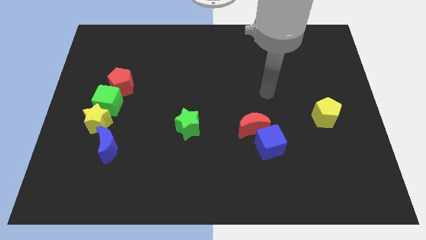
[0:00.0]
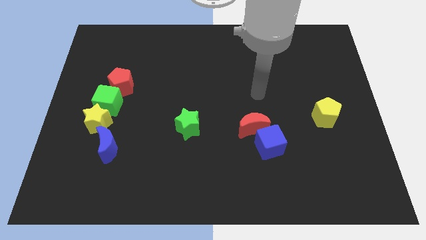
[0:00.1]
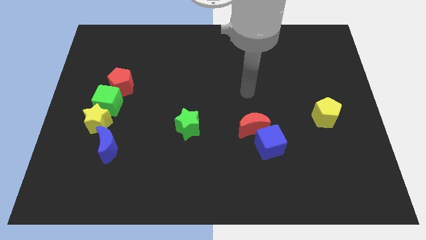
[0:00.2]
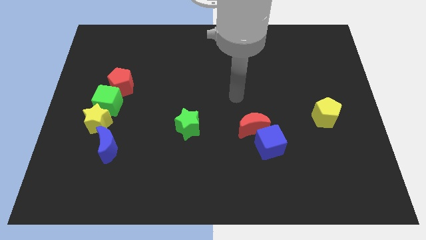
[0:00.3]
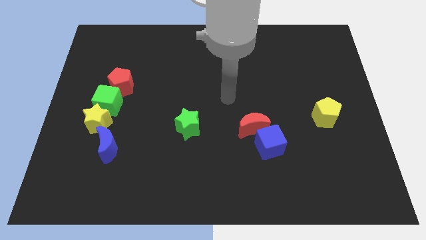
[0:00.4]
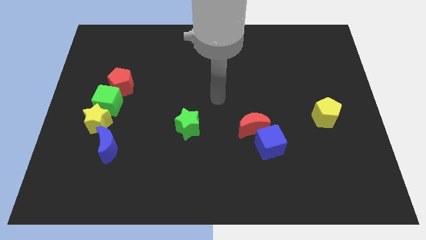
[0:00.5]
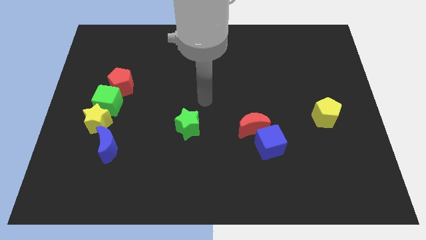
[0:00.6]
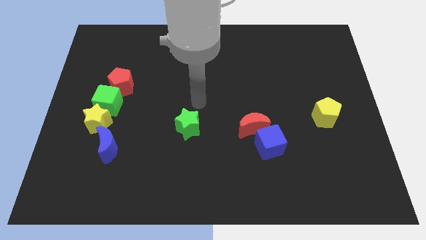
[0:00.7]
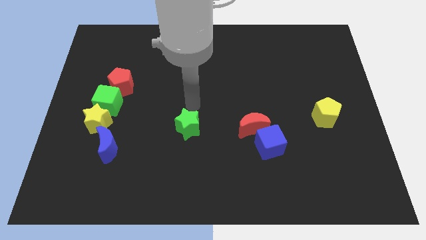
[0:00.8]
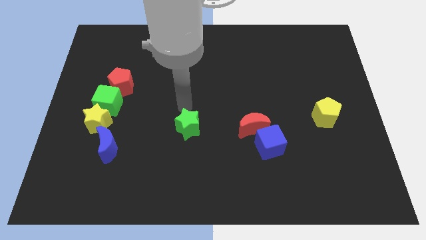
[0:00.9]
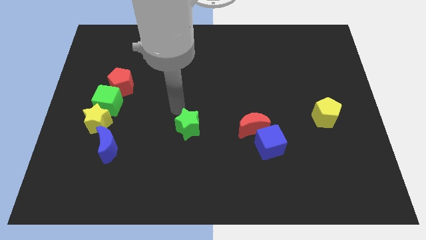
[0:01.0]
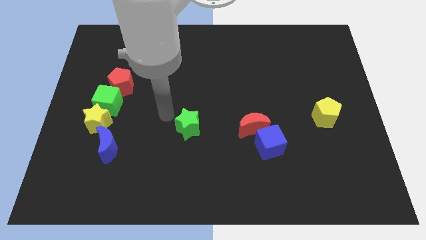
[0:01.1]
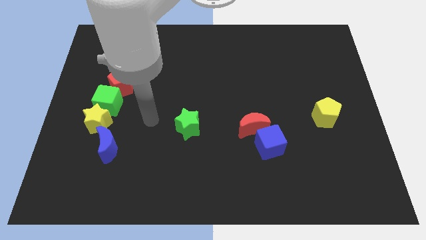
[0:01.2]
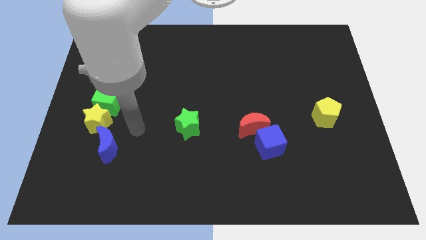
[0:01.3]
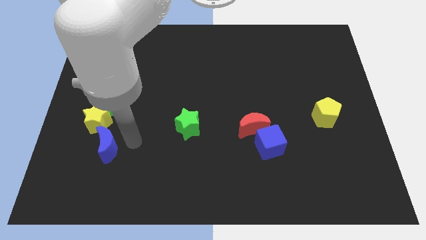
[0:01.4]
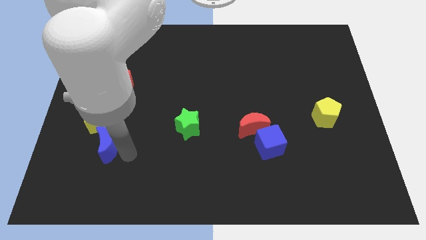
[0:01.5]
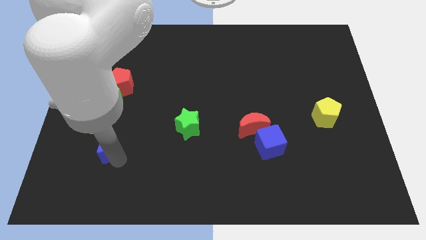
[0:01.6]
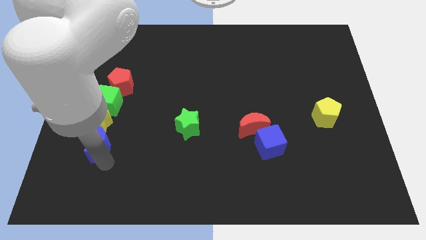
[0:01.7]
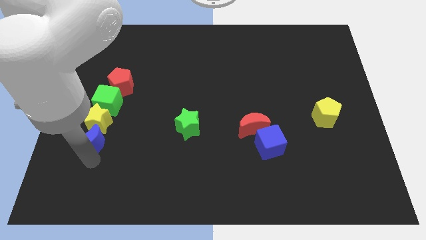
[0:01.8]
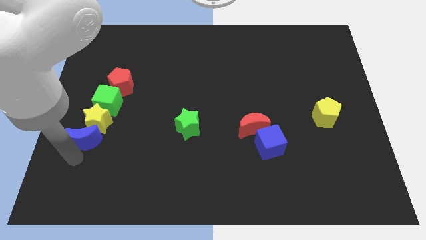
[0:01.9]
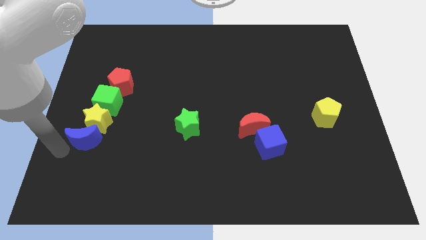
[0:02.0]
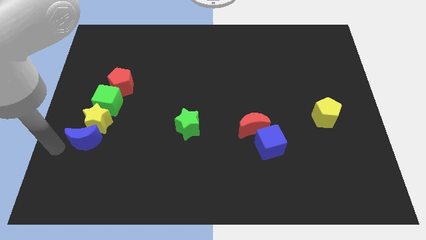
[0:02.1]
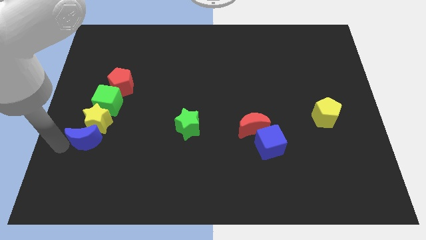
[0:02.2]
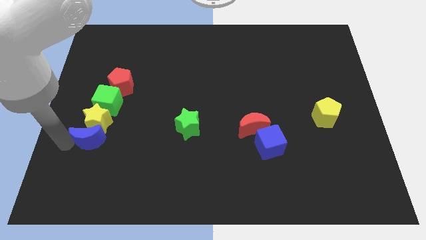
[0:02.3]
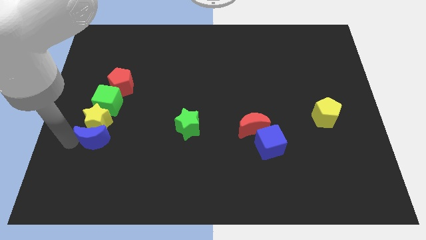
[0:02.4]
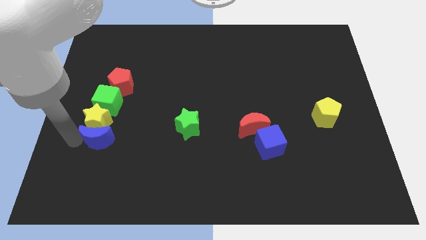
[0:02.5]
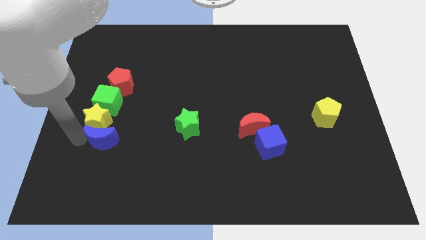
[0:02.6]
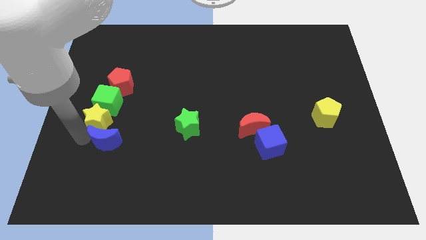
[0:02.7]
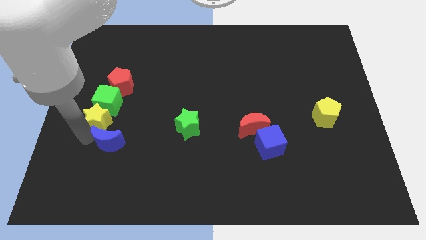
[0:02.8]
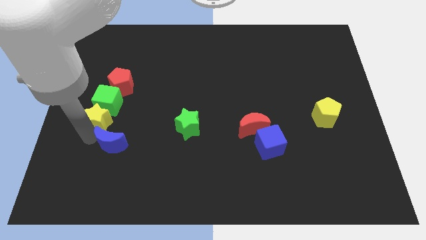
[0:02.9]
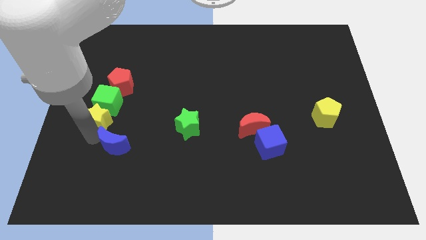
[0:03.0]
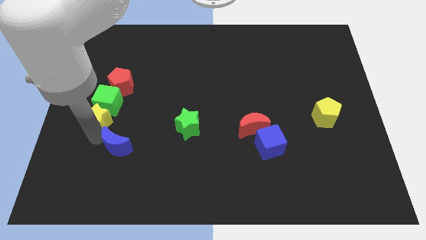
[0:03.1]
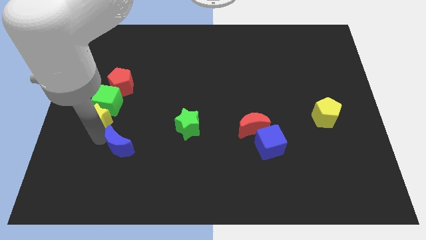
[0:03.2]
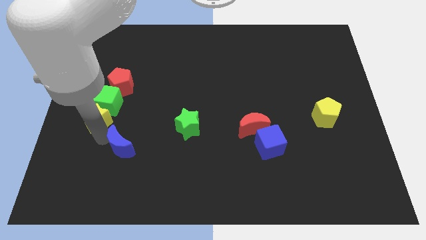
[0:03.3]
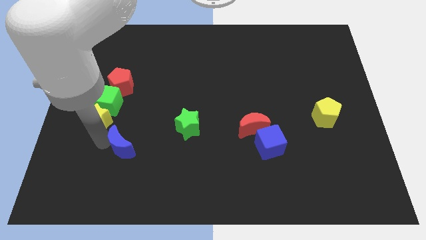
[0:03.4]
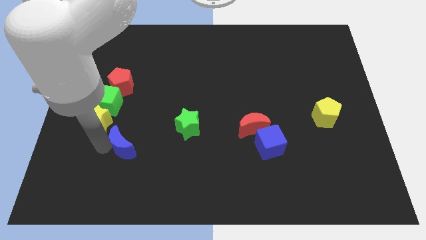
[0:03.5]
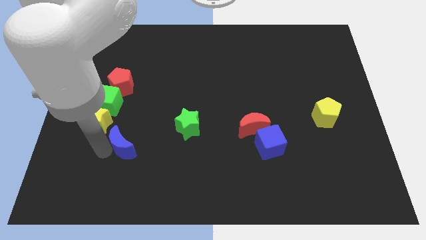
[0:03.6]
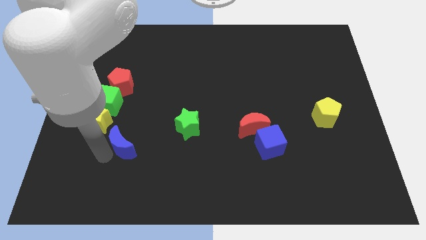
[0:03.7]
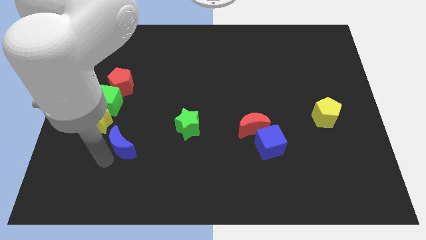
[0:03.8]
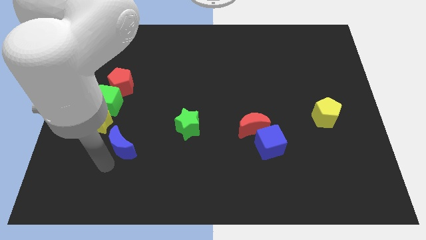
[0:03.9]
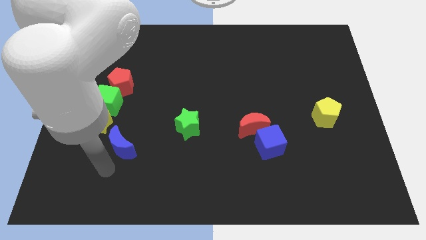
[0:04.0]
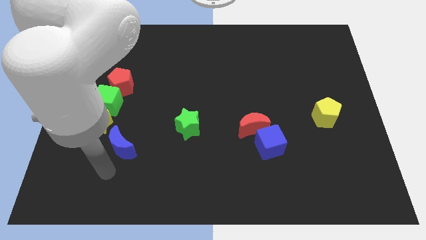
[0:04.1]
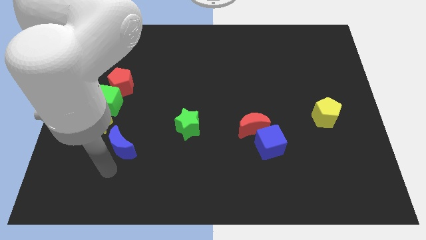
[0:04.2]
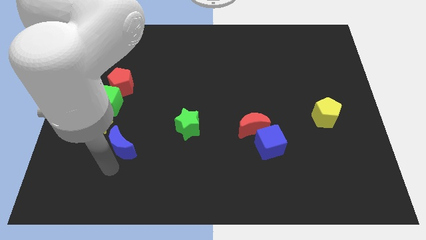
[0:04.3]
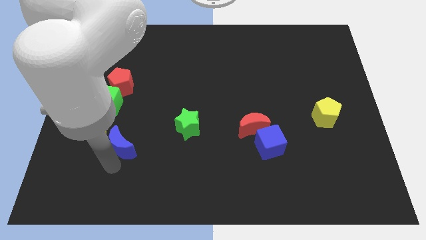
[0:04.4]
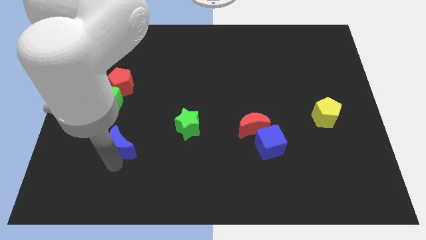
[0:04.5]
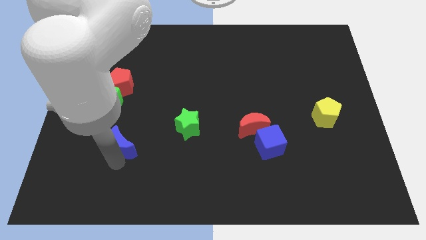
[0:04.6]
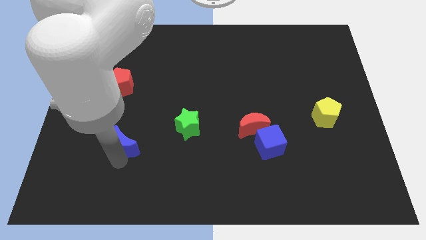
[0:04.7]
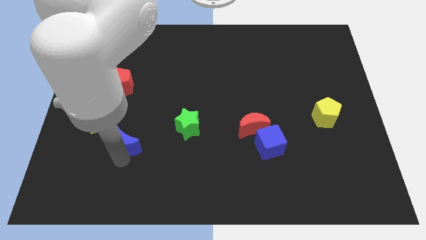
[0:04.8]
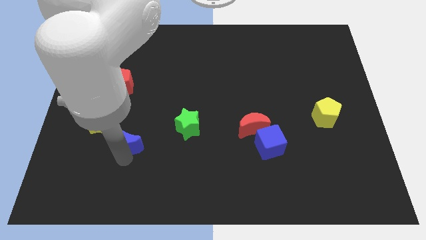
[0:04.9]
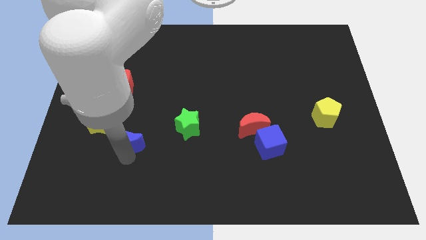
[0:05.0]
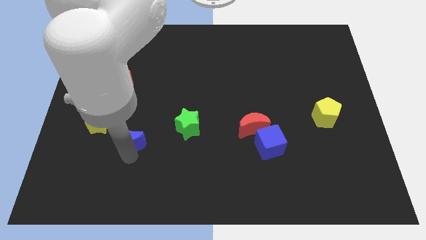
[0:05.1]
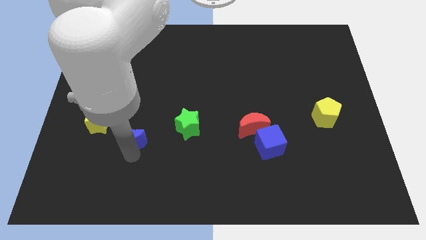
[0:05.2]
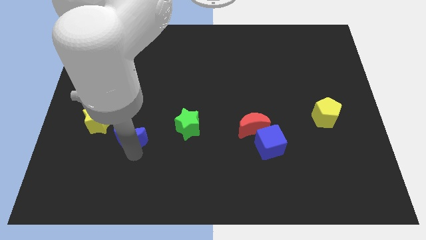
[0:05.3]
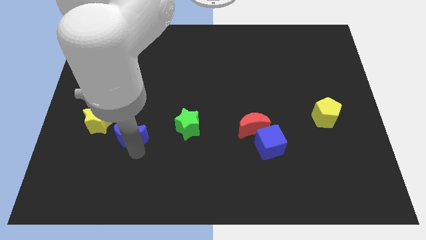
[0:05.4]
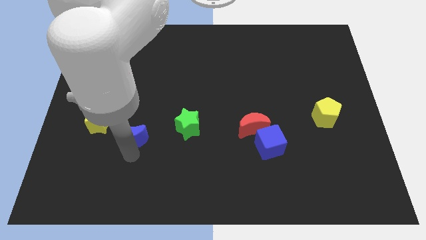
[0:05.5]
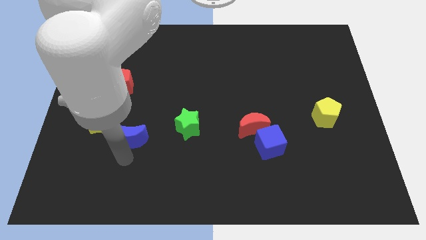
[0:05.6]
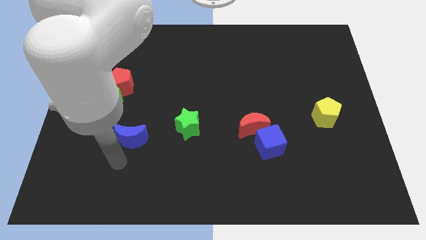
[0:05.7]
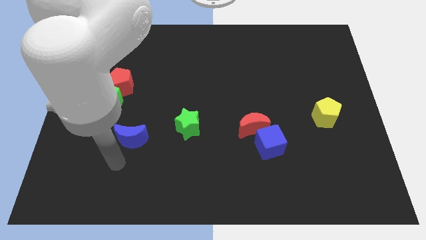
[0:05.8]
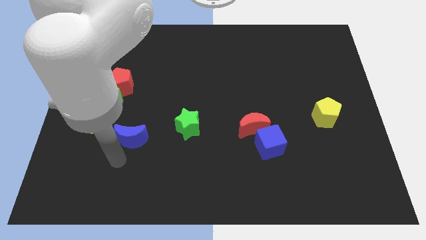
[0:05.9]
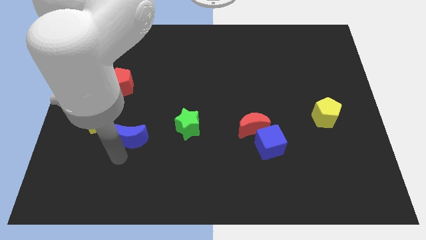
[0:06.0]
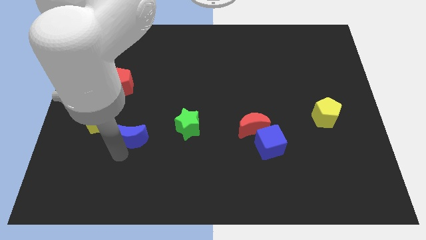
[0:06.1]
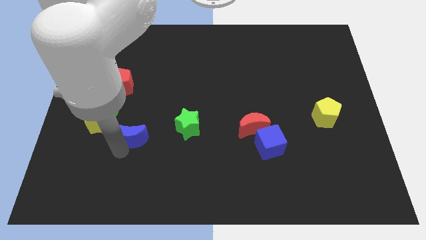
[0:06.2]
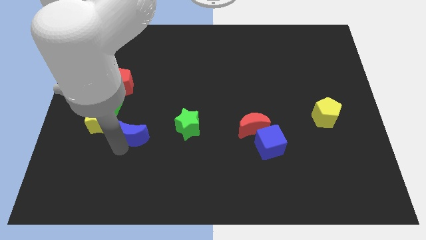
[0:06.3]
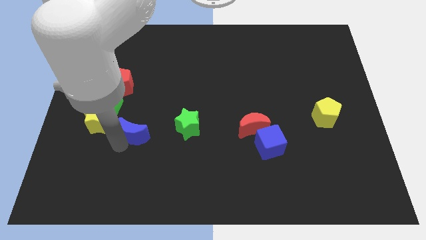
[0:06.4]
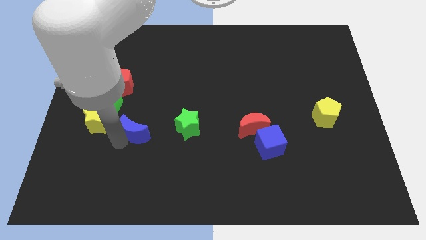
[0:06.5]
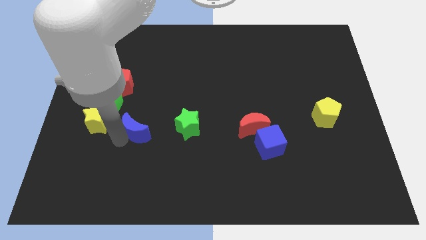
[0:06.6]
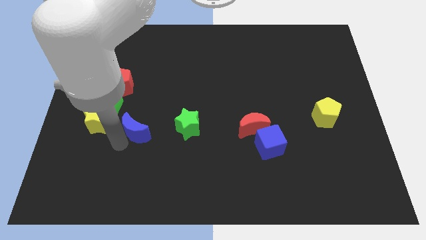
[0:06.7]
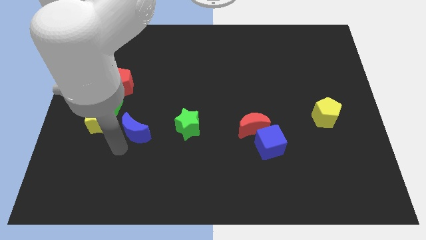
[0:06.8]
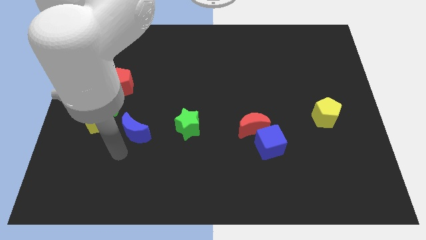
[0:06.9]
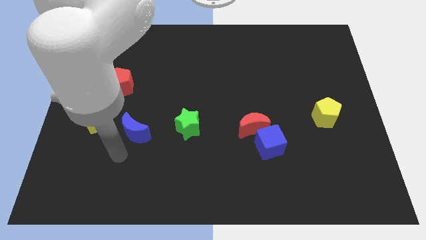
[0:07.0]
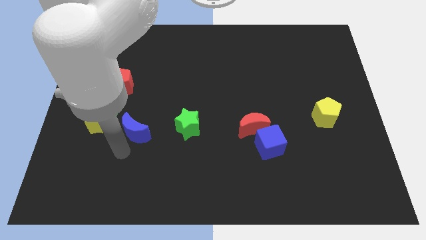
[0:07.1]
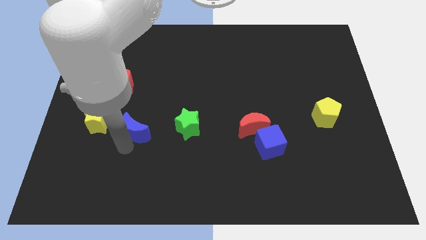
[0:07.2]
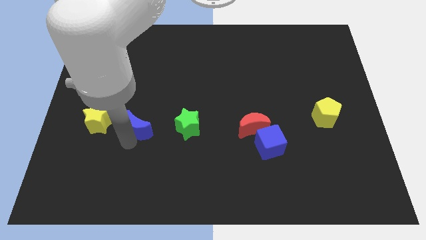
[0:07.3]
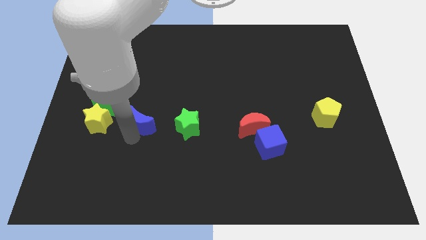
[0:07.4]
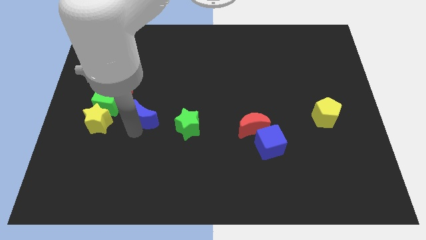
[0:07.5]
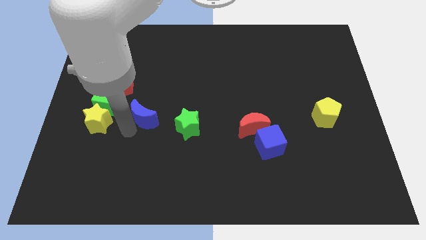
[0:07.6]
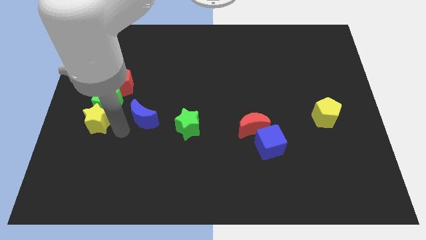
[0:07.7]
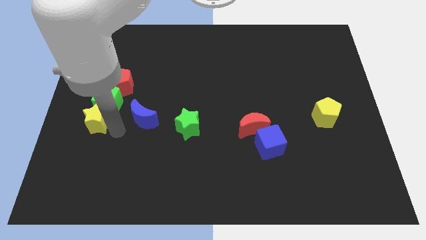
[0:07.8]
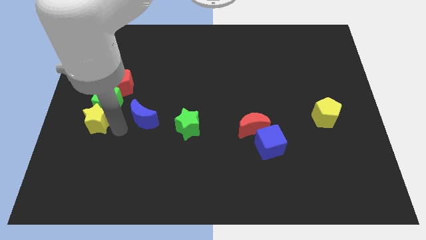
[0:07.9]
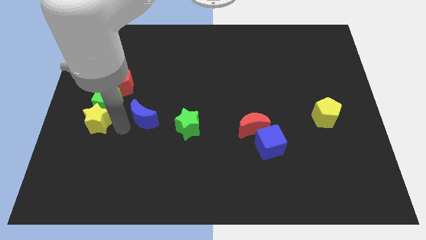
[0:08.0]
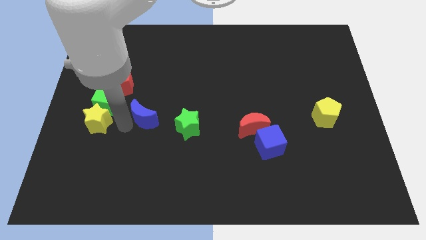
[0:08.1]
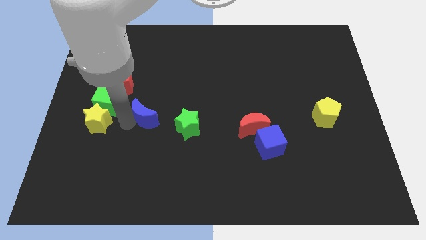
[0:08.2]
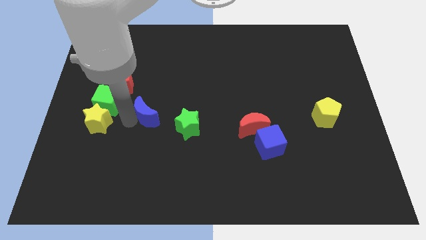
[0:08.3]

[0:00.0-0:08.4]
move the blue moon diagonally up and to the left of the green star
